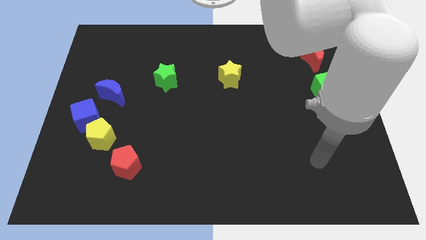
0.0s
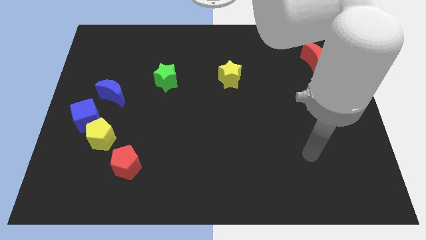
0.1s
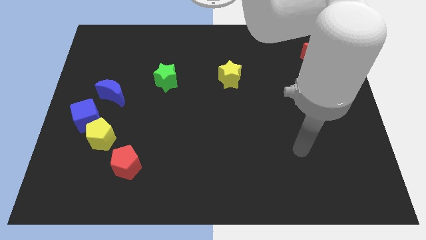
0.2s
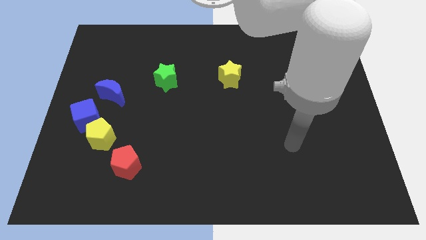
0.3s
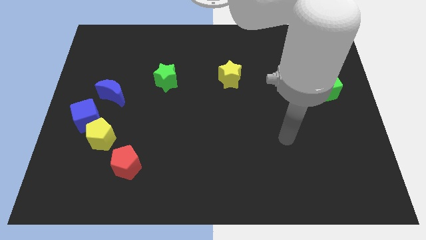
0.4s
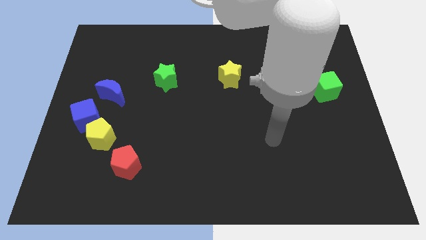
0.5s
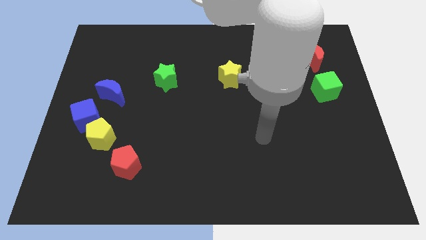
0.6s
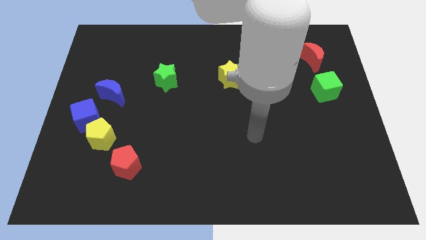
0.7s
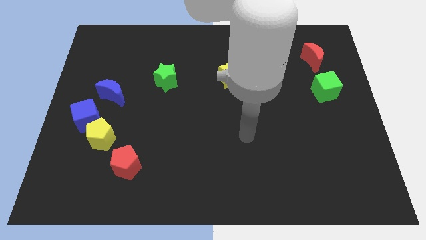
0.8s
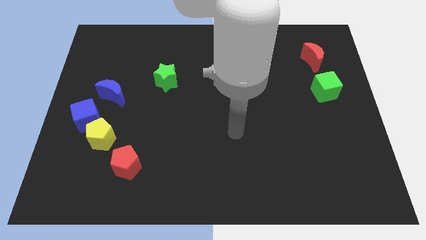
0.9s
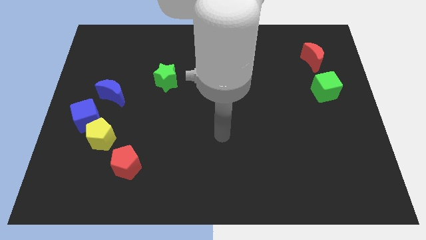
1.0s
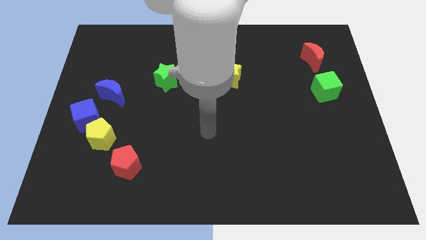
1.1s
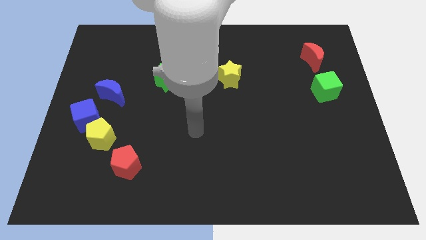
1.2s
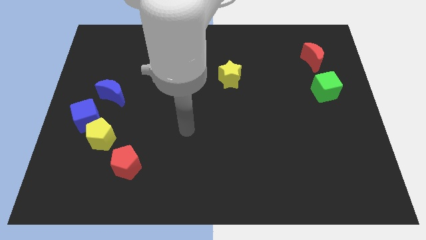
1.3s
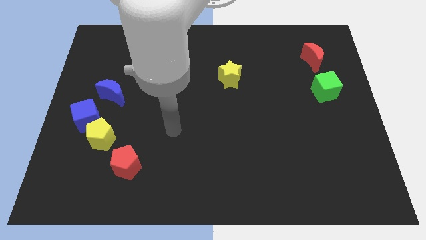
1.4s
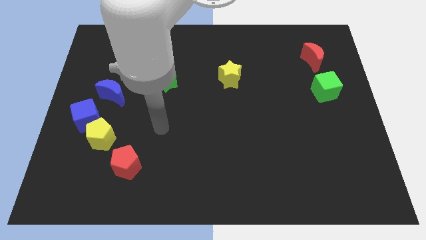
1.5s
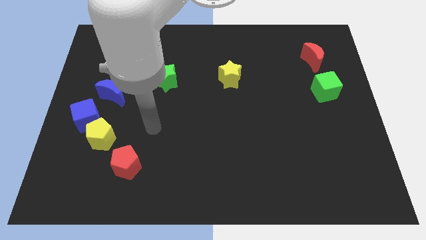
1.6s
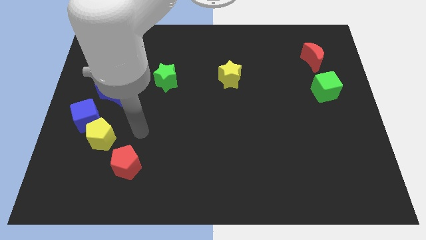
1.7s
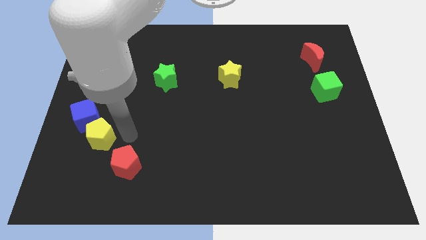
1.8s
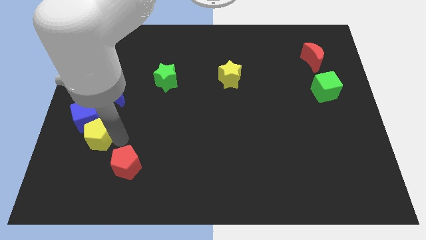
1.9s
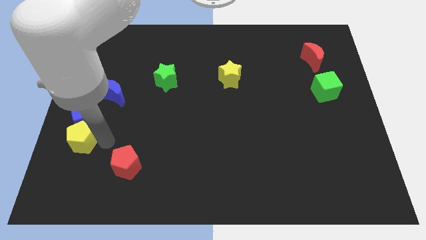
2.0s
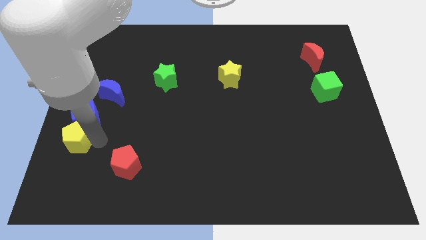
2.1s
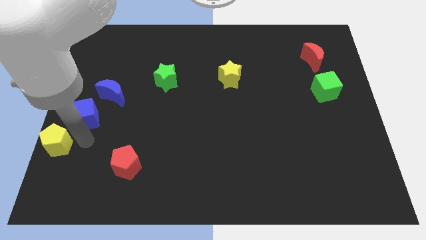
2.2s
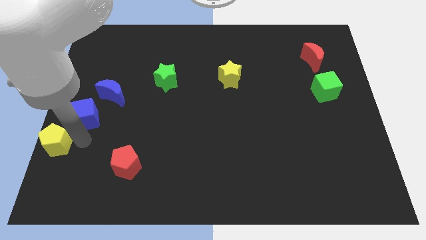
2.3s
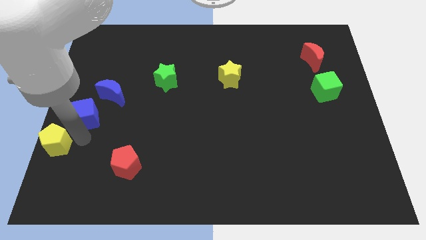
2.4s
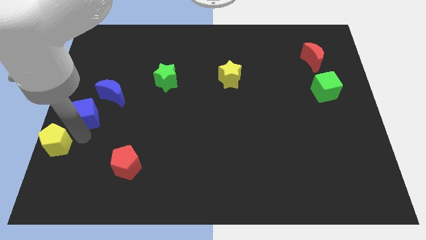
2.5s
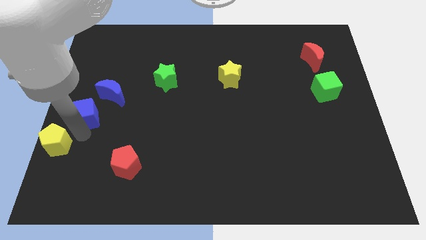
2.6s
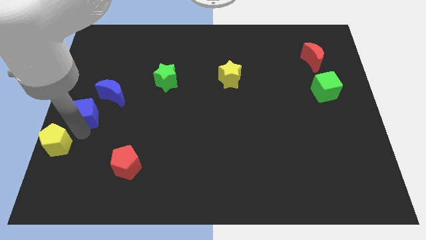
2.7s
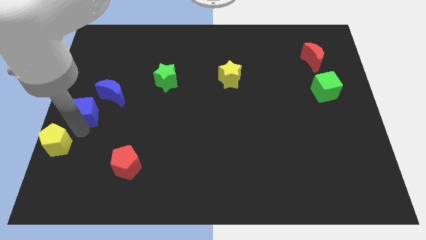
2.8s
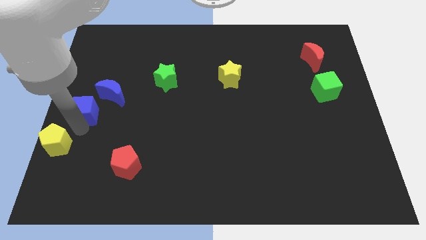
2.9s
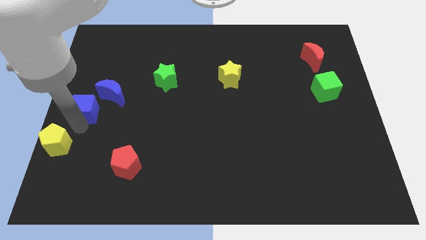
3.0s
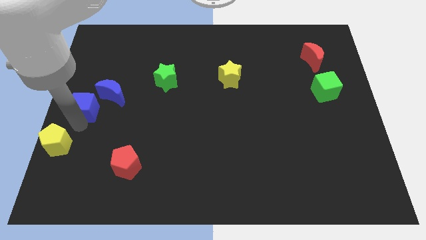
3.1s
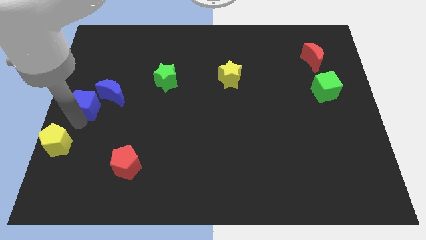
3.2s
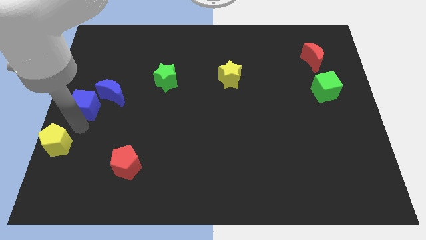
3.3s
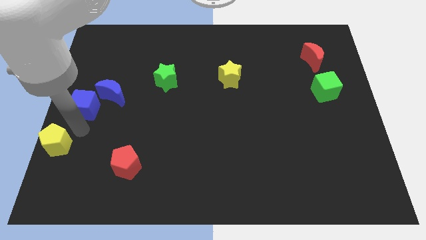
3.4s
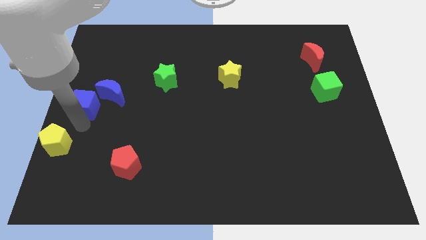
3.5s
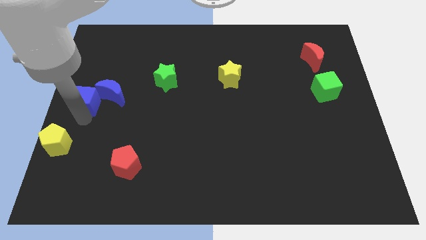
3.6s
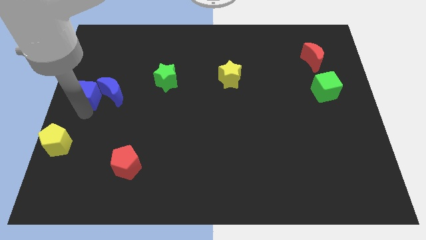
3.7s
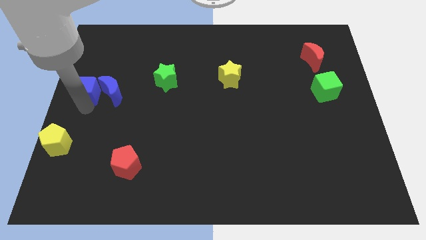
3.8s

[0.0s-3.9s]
slightly slide the blue cube up

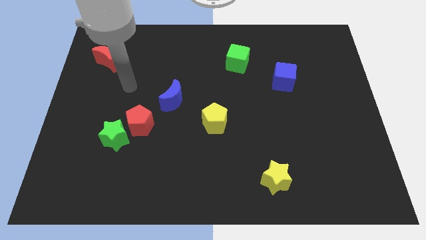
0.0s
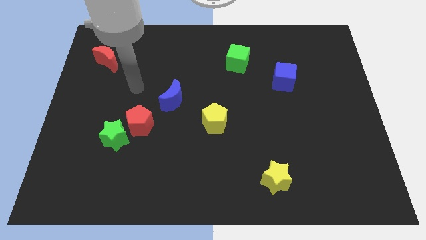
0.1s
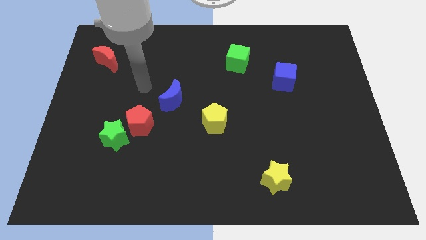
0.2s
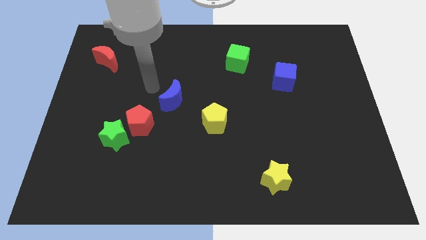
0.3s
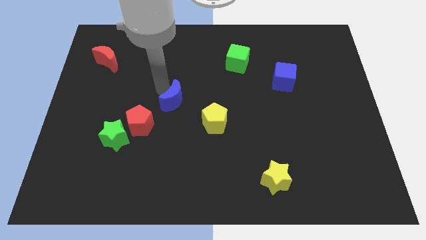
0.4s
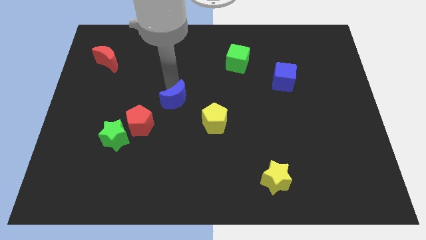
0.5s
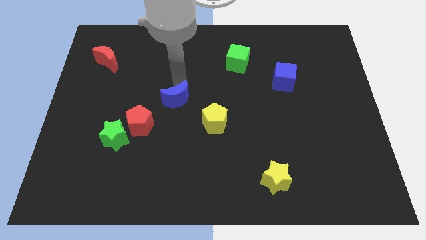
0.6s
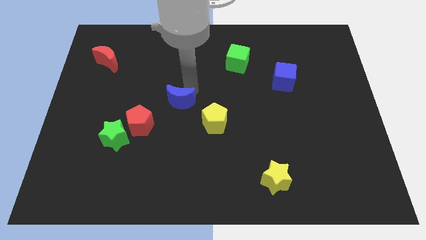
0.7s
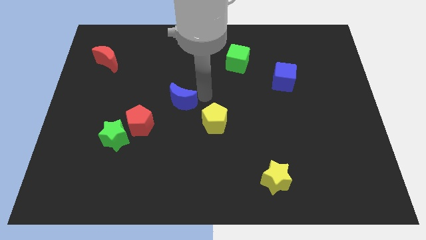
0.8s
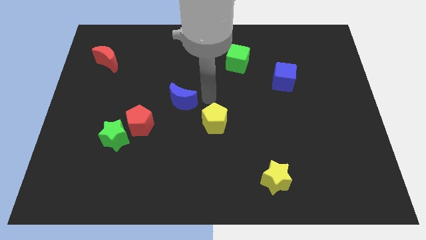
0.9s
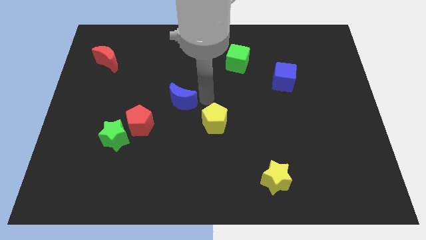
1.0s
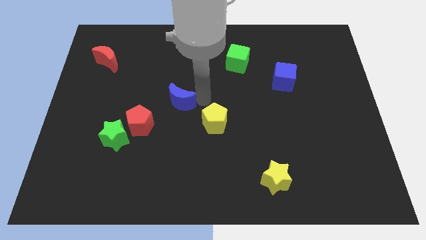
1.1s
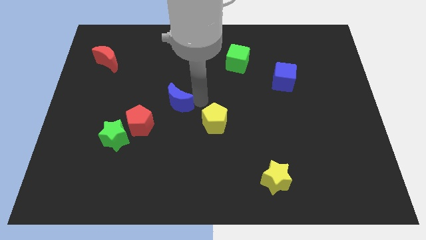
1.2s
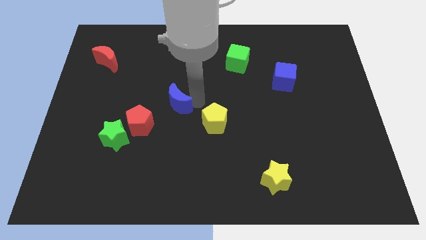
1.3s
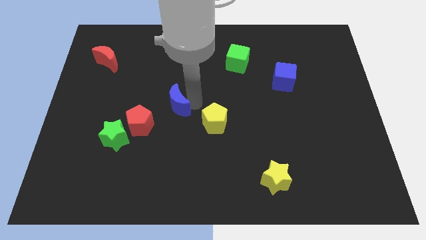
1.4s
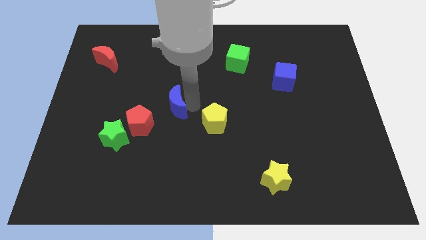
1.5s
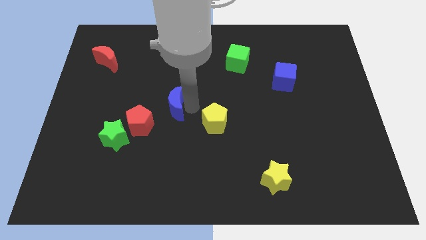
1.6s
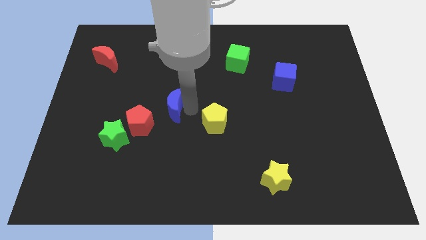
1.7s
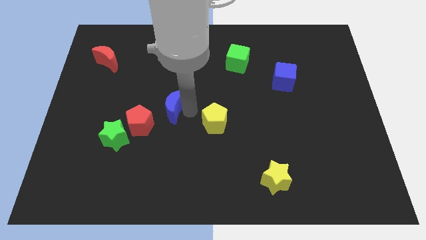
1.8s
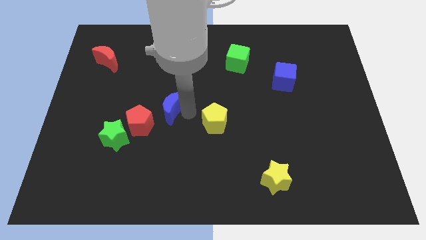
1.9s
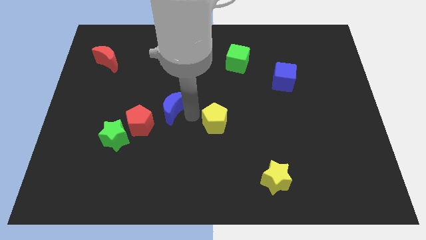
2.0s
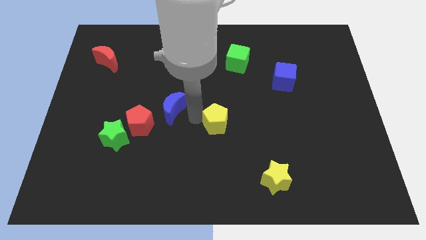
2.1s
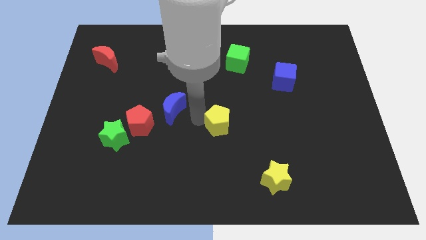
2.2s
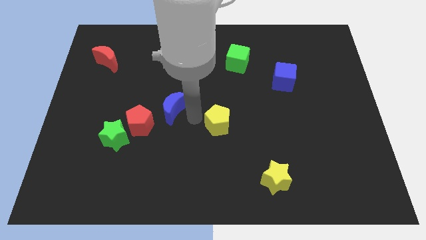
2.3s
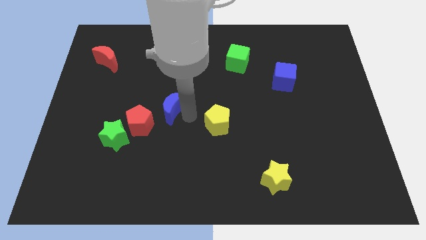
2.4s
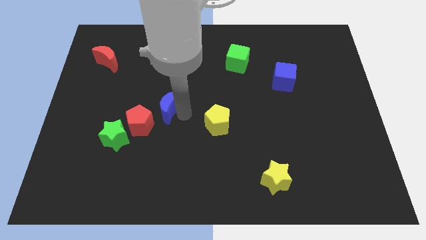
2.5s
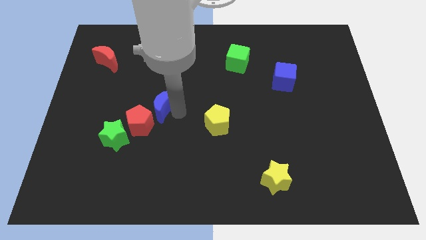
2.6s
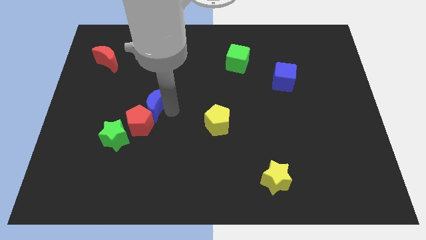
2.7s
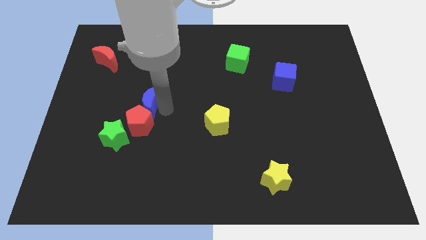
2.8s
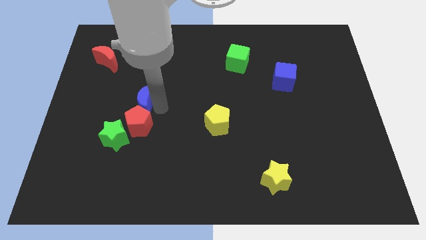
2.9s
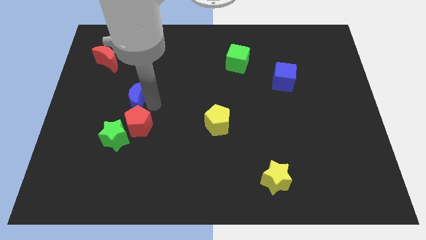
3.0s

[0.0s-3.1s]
slide the blue moon left a bit

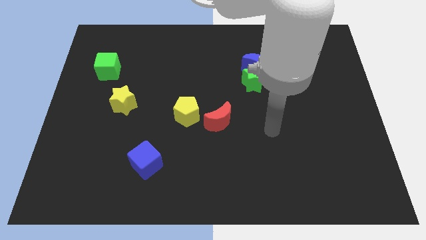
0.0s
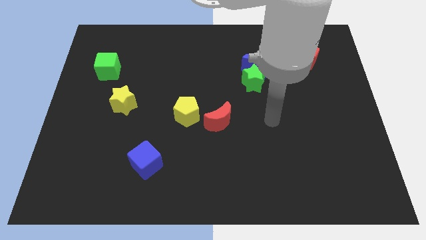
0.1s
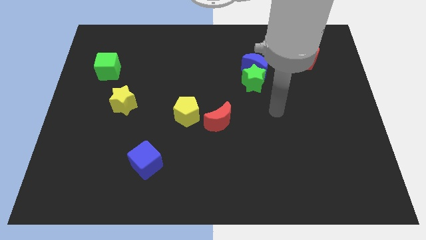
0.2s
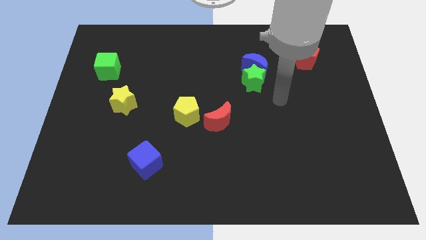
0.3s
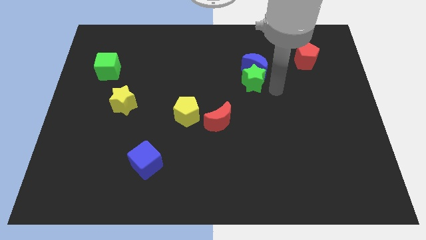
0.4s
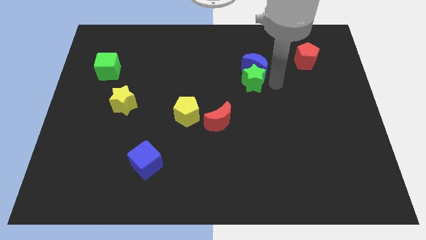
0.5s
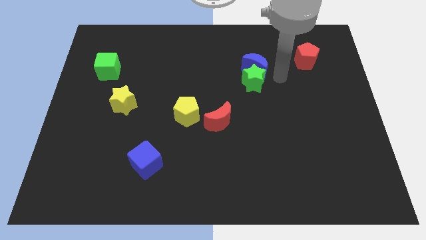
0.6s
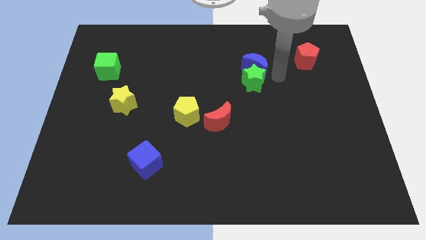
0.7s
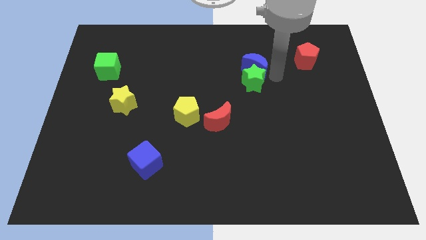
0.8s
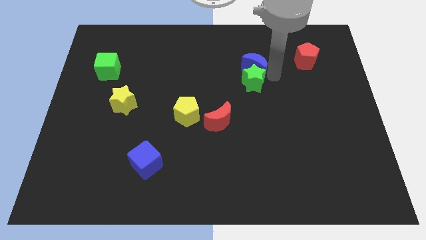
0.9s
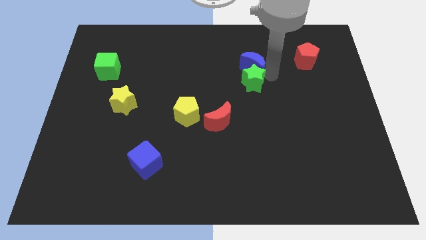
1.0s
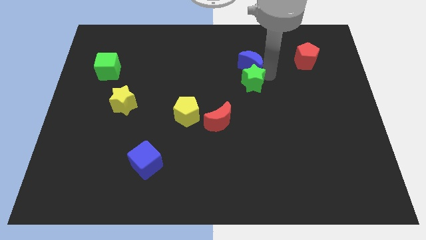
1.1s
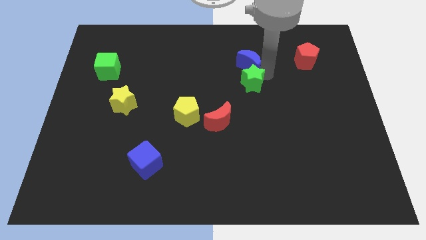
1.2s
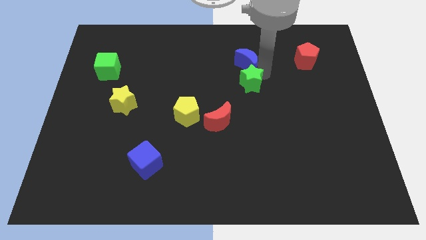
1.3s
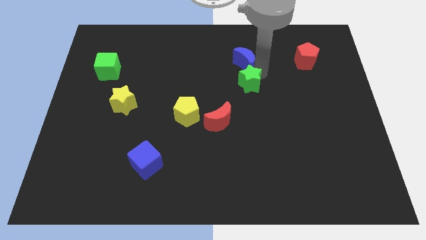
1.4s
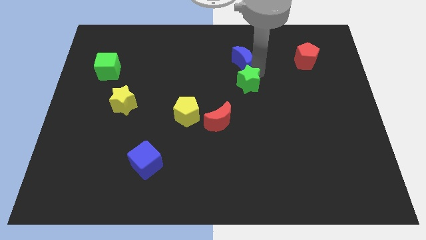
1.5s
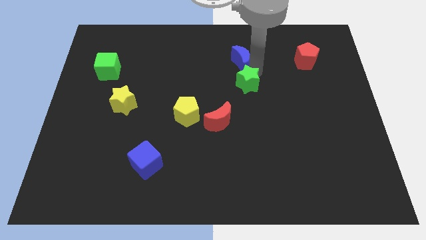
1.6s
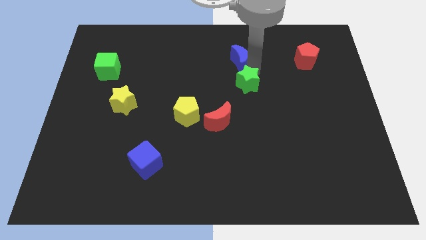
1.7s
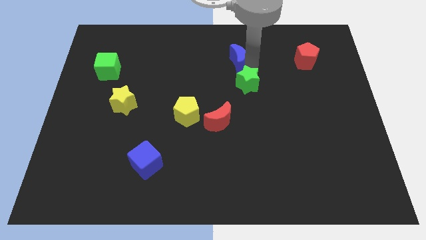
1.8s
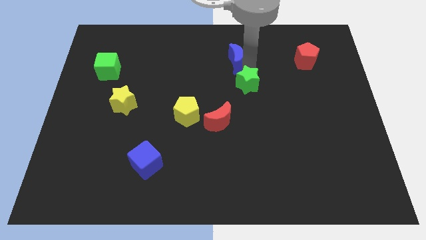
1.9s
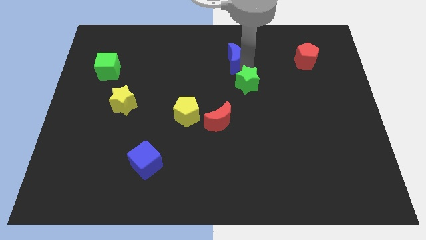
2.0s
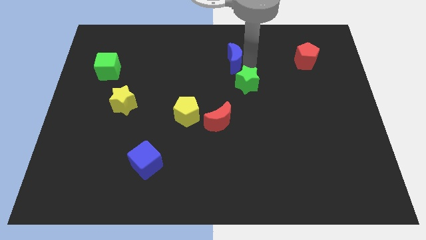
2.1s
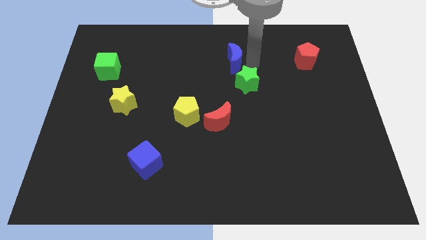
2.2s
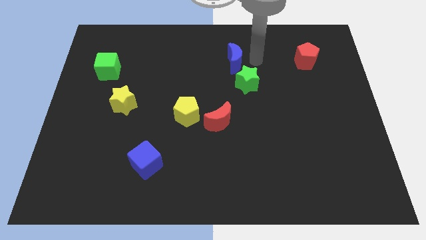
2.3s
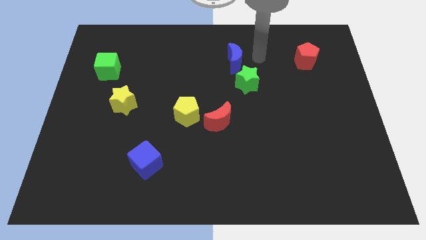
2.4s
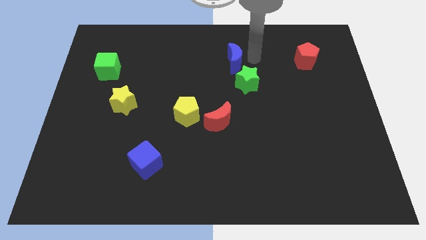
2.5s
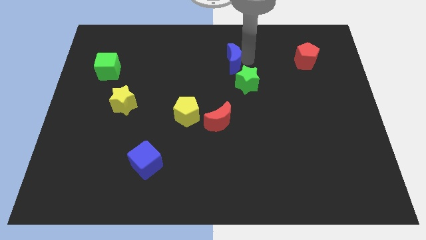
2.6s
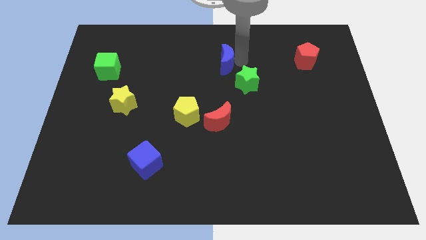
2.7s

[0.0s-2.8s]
slightly push the blue moon to the left
